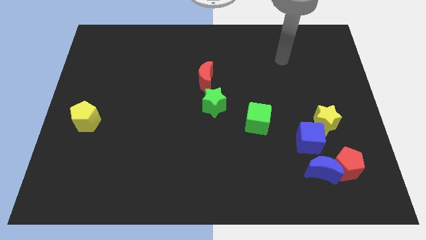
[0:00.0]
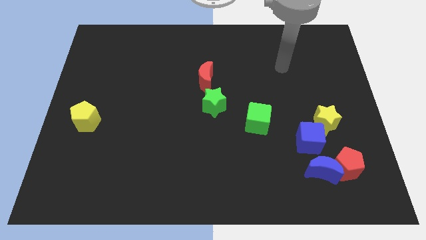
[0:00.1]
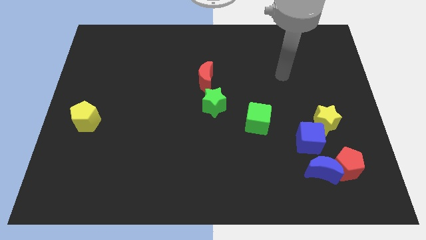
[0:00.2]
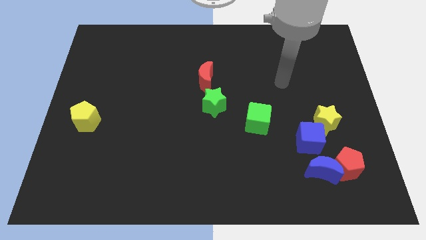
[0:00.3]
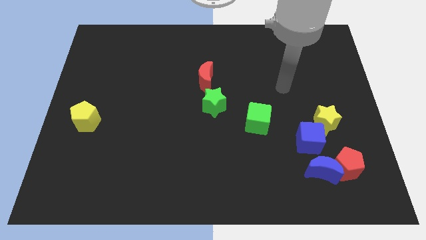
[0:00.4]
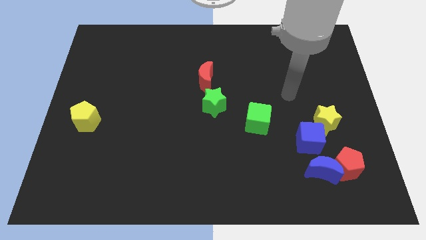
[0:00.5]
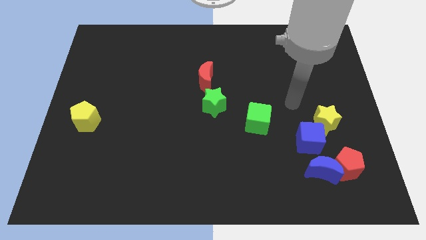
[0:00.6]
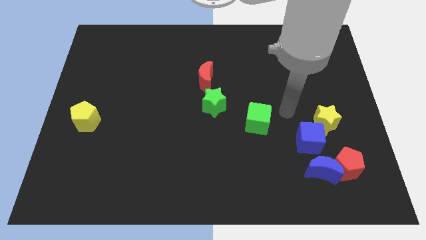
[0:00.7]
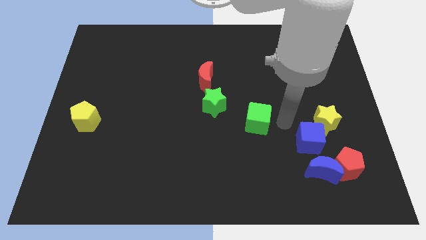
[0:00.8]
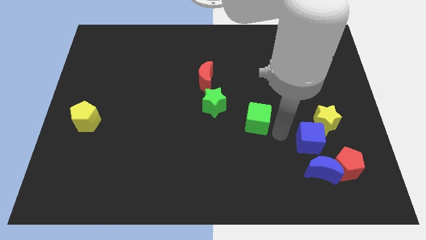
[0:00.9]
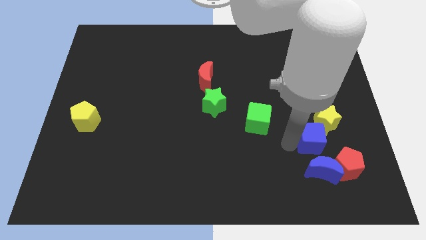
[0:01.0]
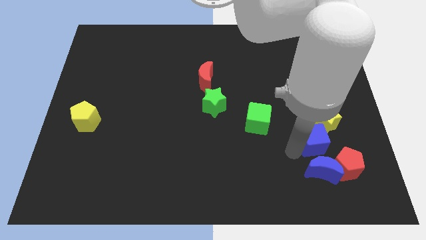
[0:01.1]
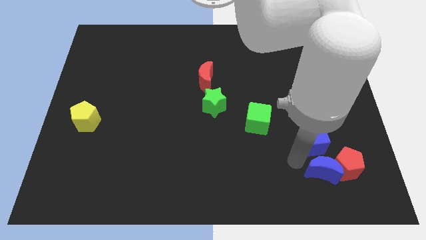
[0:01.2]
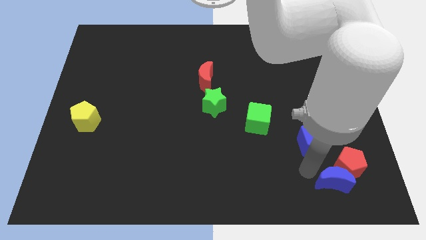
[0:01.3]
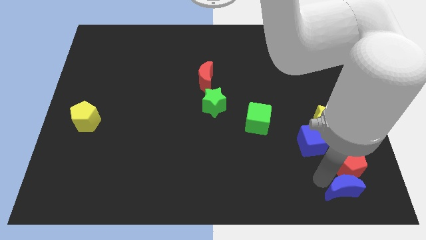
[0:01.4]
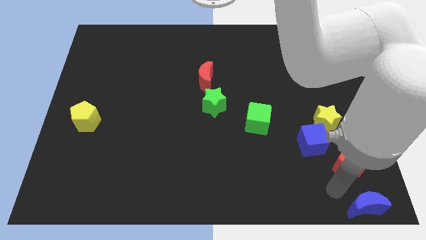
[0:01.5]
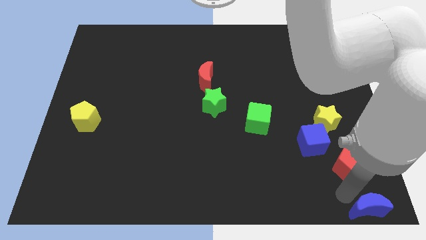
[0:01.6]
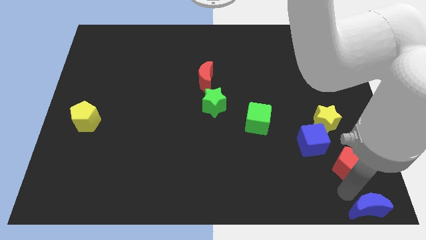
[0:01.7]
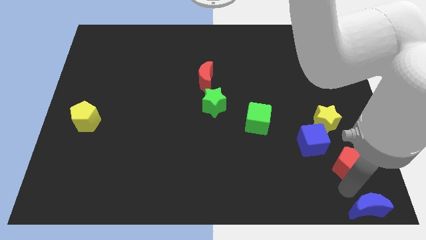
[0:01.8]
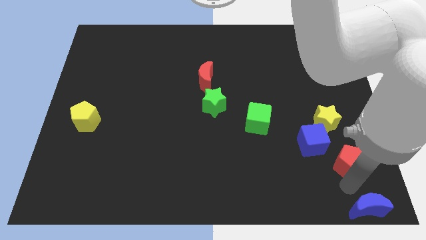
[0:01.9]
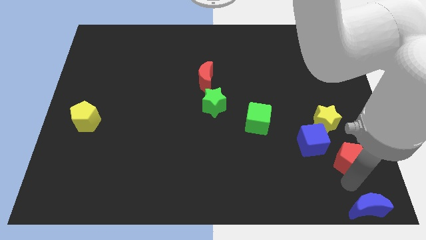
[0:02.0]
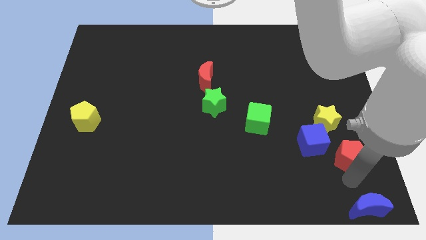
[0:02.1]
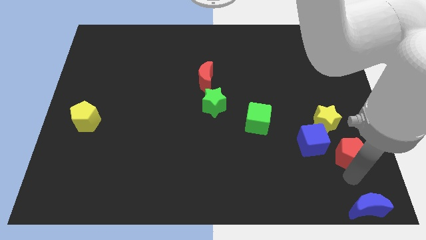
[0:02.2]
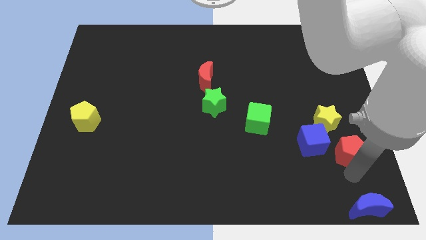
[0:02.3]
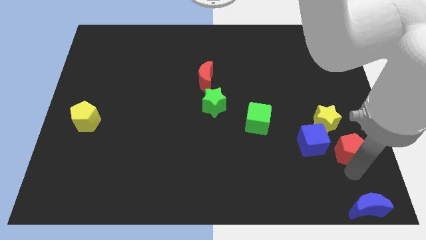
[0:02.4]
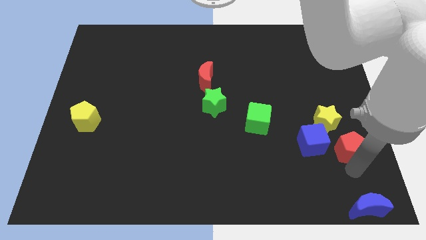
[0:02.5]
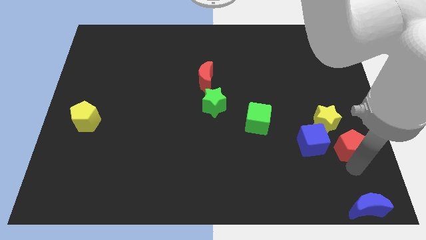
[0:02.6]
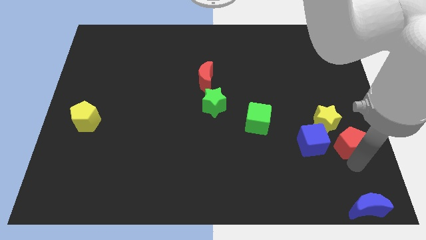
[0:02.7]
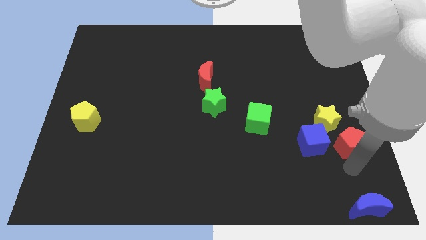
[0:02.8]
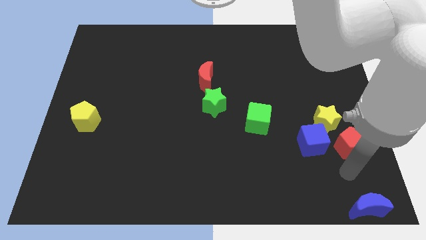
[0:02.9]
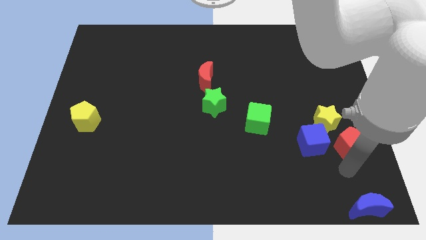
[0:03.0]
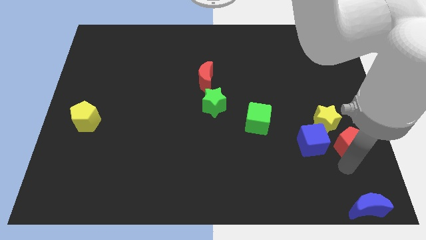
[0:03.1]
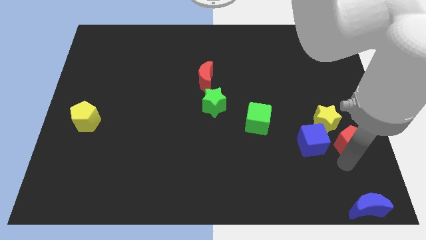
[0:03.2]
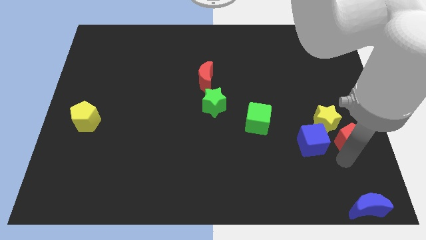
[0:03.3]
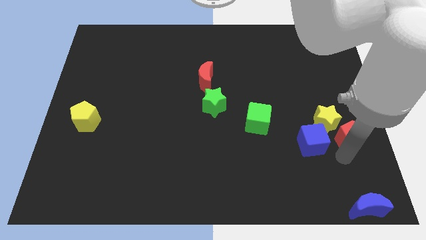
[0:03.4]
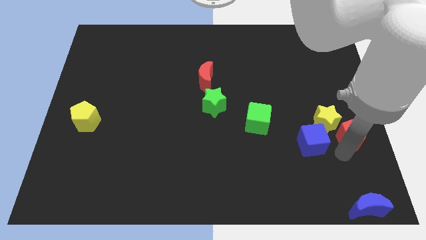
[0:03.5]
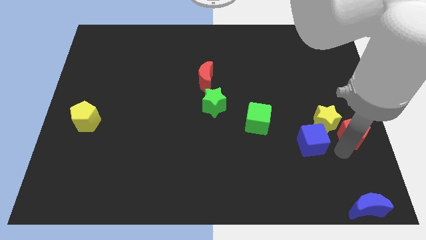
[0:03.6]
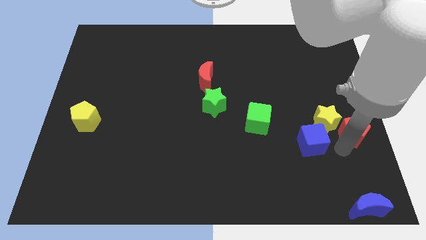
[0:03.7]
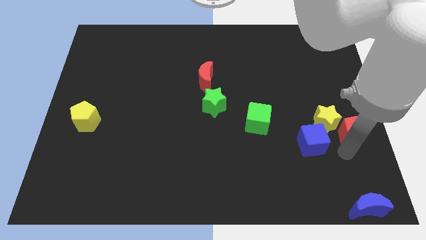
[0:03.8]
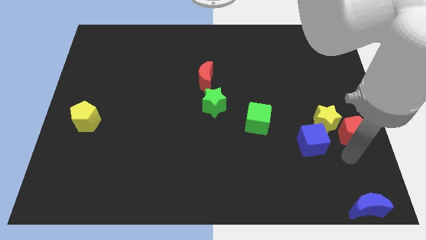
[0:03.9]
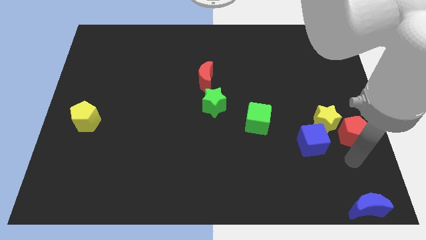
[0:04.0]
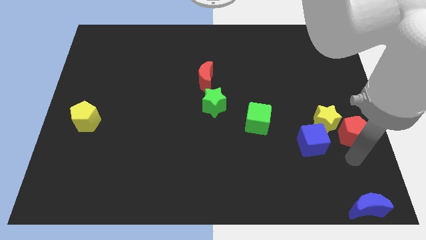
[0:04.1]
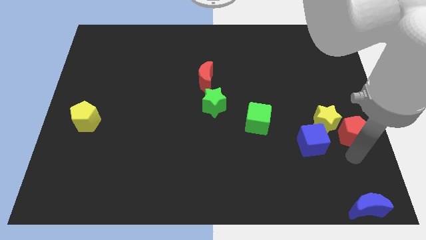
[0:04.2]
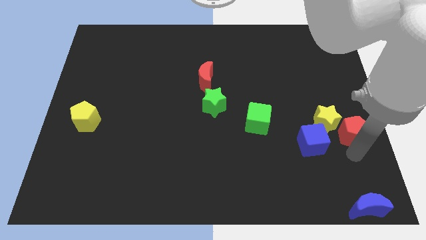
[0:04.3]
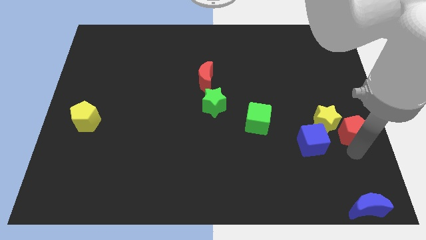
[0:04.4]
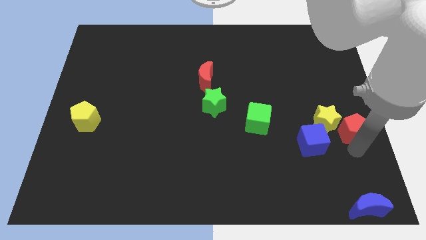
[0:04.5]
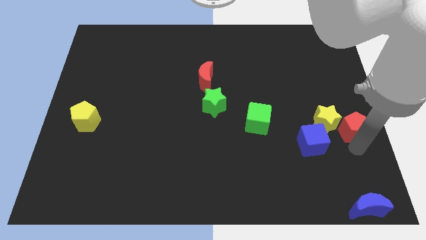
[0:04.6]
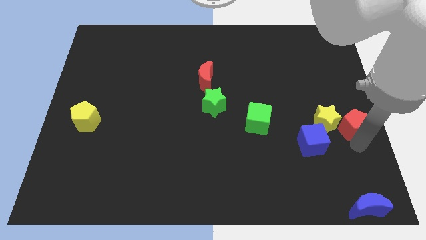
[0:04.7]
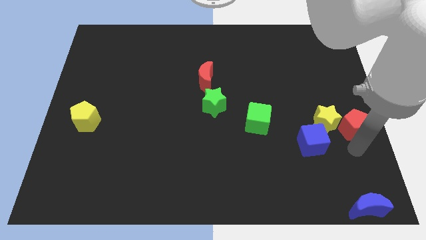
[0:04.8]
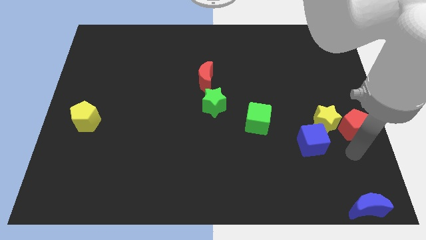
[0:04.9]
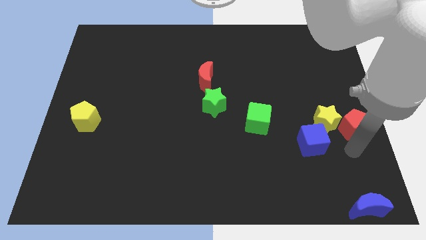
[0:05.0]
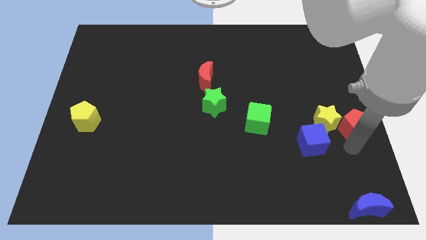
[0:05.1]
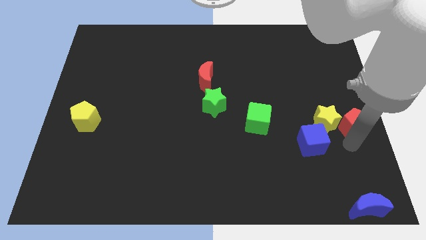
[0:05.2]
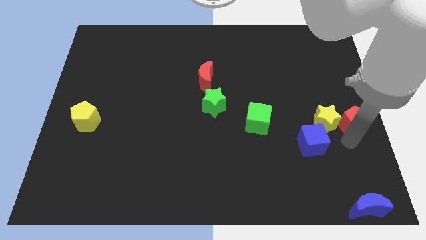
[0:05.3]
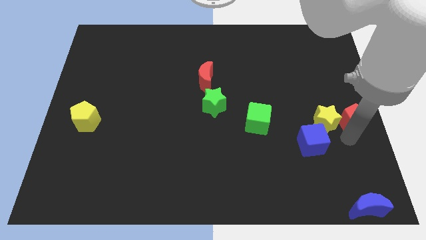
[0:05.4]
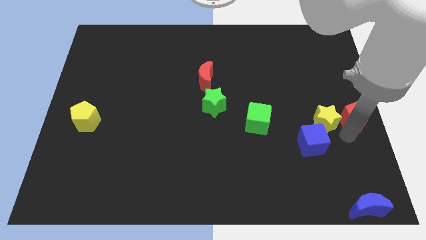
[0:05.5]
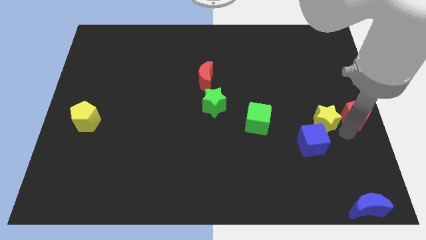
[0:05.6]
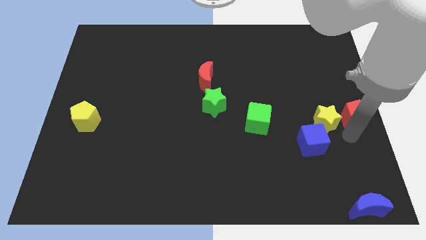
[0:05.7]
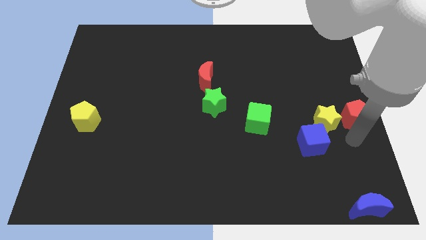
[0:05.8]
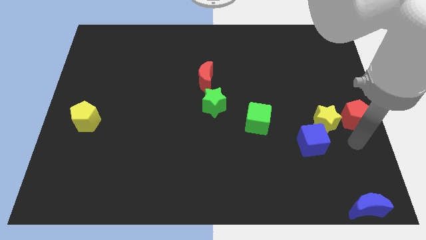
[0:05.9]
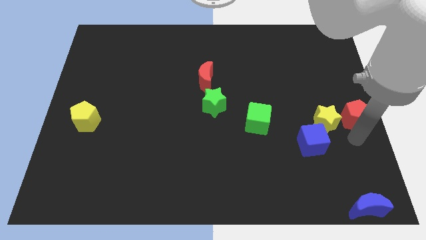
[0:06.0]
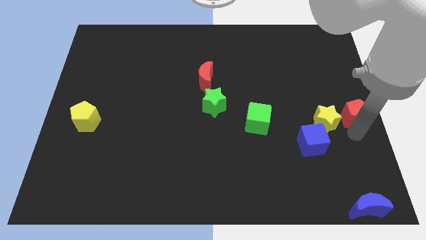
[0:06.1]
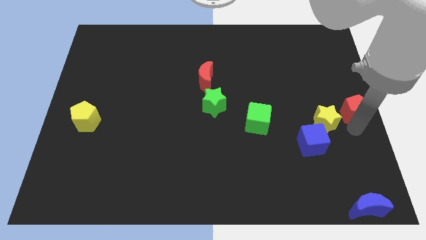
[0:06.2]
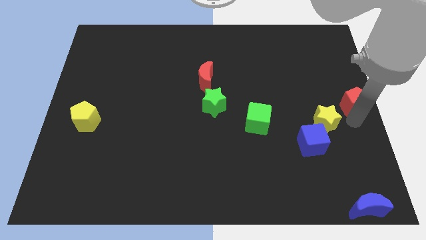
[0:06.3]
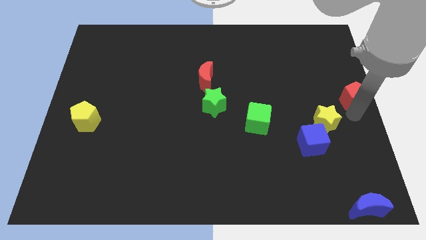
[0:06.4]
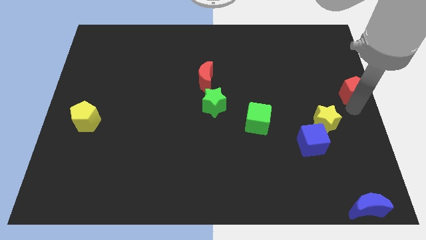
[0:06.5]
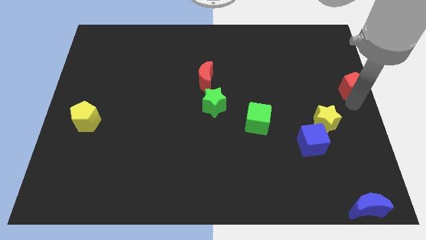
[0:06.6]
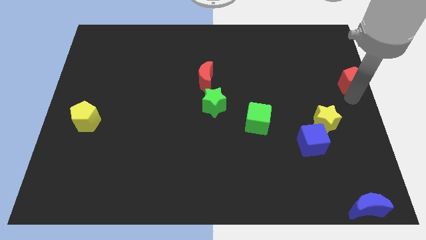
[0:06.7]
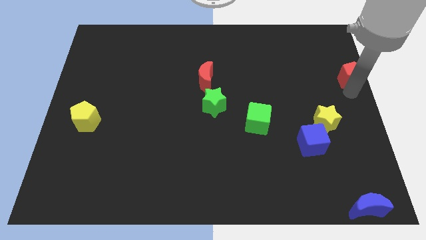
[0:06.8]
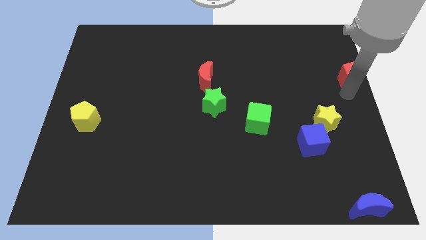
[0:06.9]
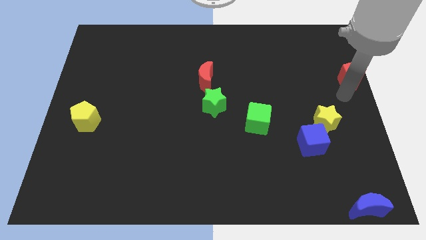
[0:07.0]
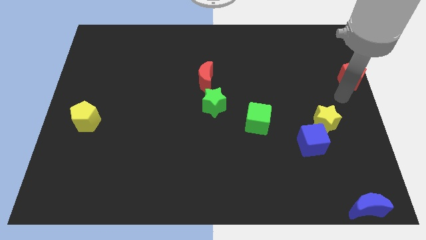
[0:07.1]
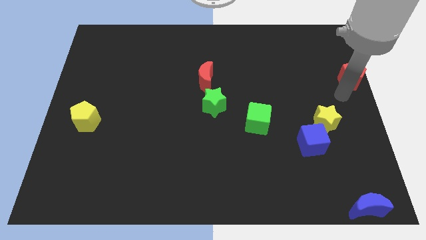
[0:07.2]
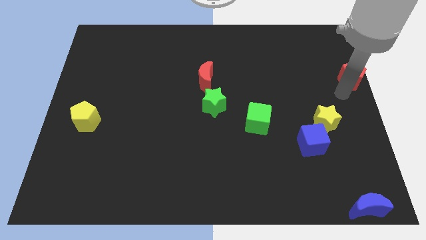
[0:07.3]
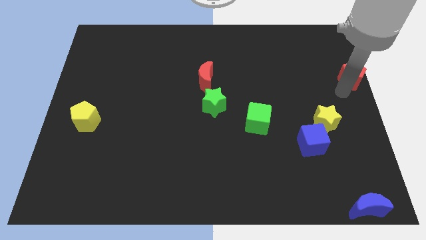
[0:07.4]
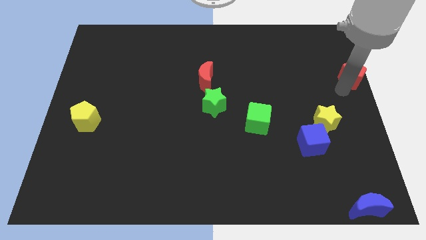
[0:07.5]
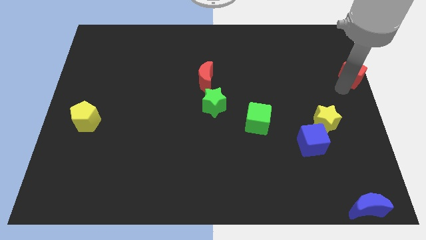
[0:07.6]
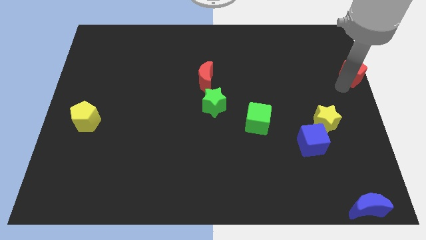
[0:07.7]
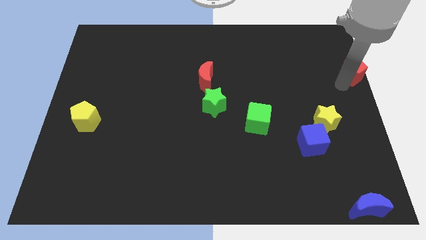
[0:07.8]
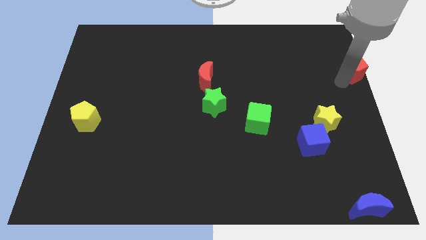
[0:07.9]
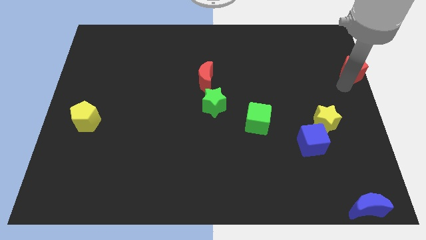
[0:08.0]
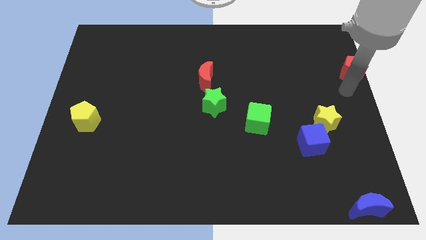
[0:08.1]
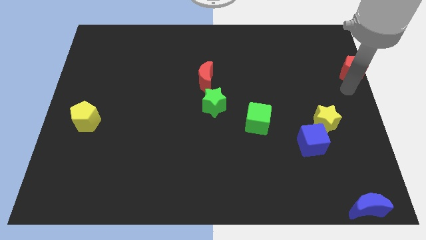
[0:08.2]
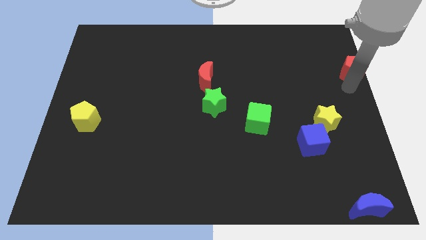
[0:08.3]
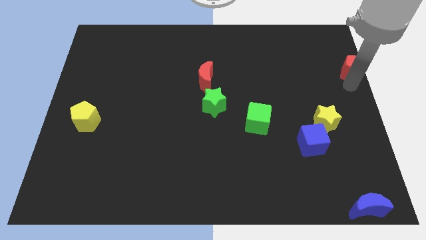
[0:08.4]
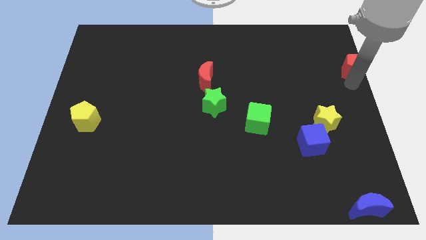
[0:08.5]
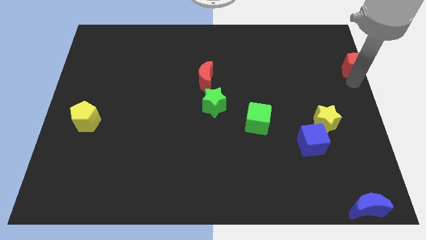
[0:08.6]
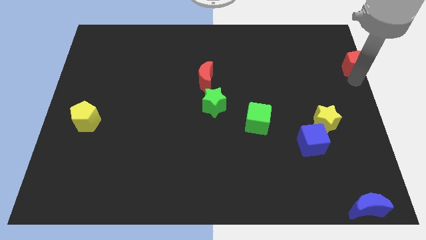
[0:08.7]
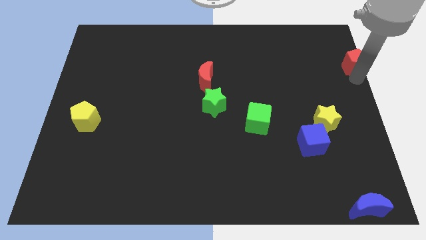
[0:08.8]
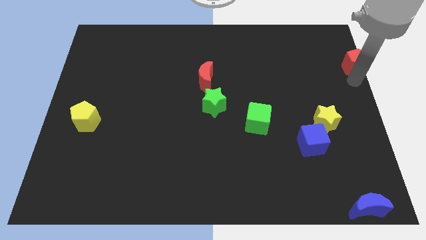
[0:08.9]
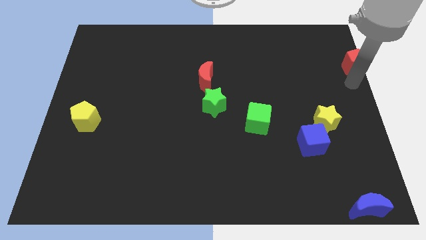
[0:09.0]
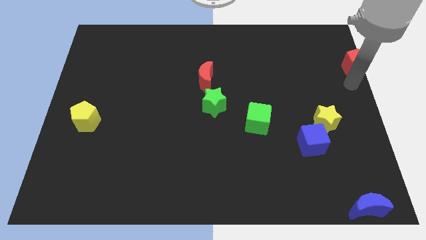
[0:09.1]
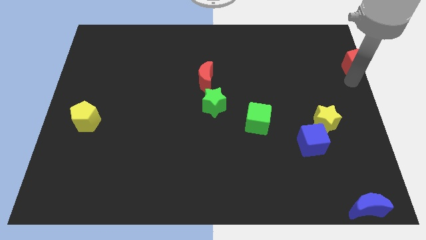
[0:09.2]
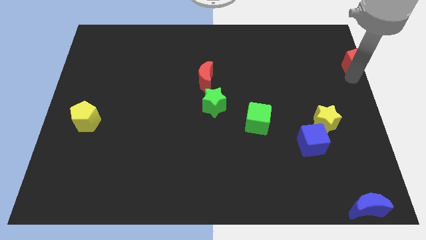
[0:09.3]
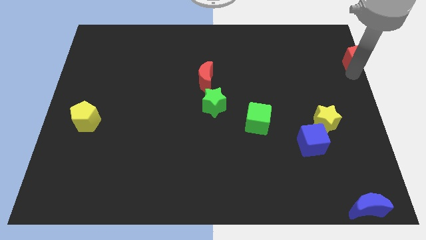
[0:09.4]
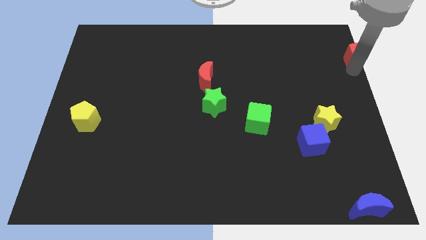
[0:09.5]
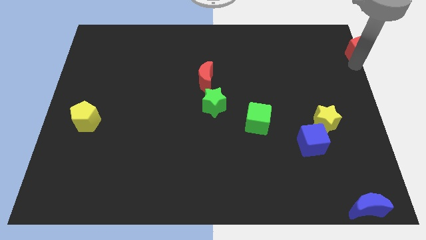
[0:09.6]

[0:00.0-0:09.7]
move the red pentagon to the top right corner
